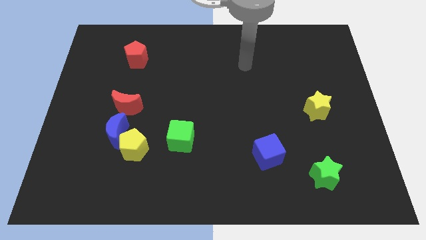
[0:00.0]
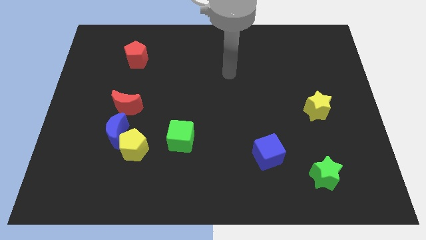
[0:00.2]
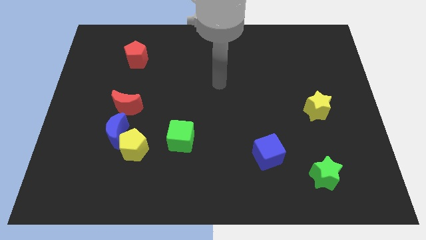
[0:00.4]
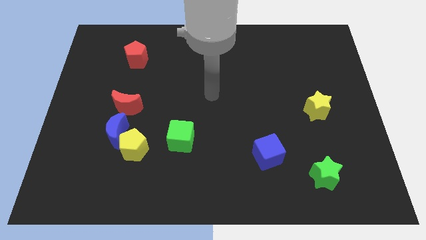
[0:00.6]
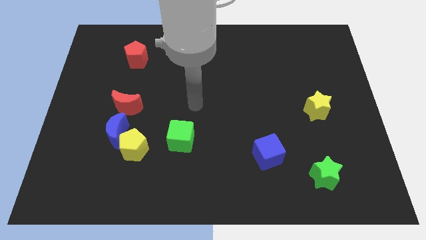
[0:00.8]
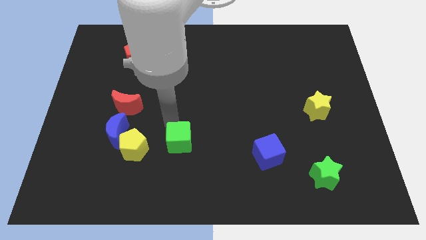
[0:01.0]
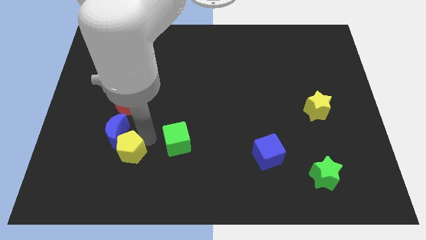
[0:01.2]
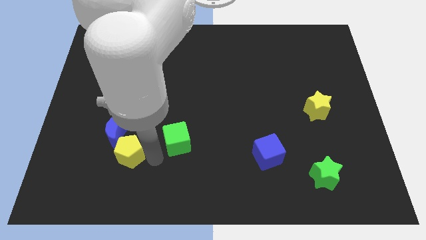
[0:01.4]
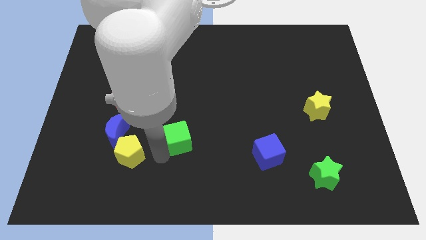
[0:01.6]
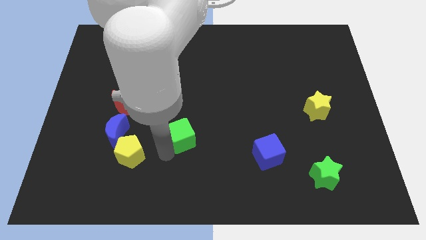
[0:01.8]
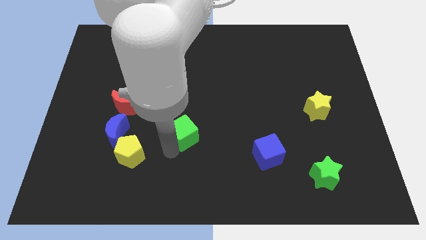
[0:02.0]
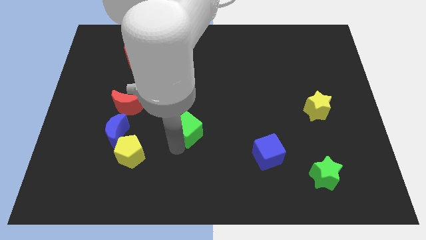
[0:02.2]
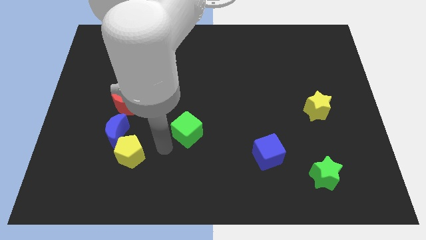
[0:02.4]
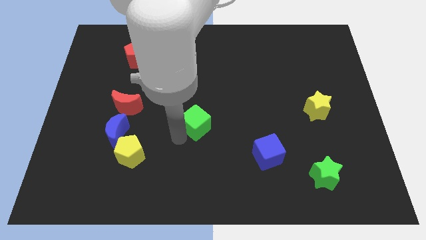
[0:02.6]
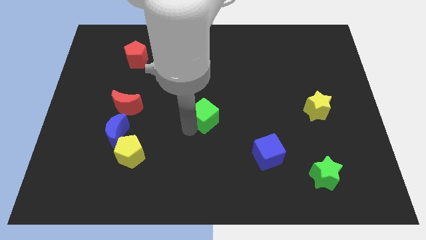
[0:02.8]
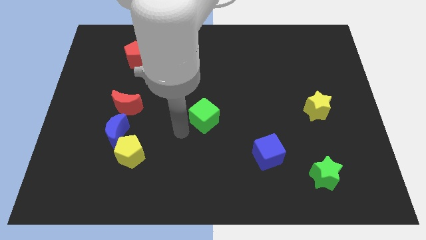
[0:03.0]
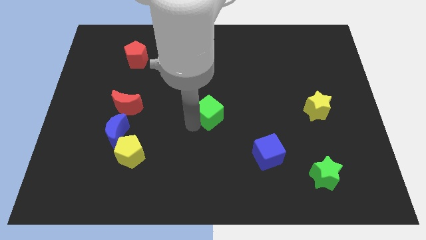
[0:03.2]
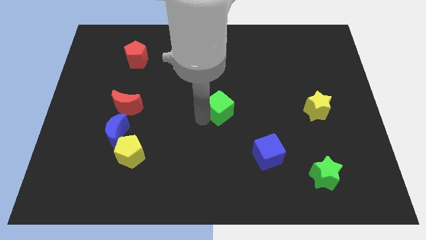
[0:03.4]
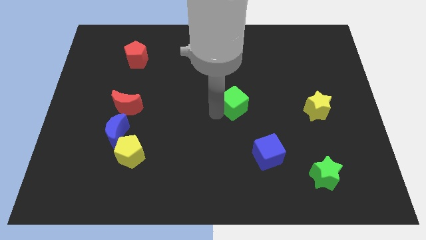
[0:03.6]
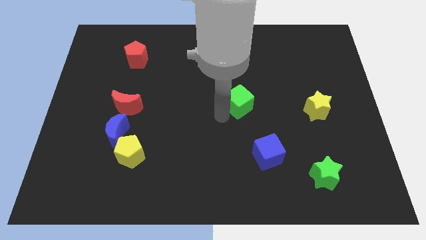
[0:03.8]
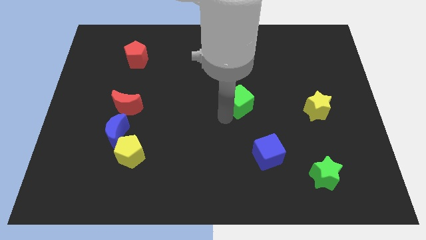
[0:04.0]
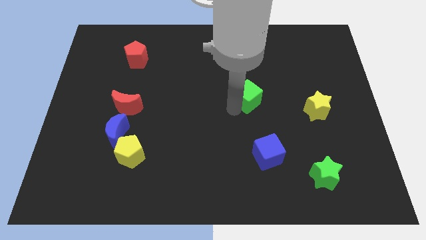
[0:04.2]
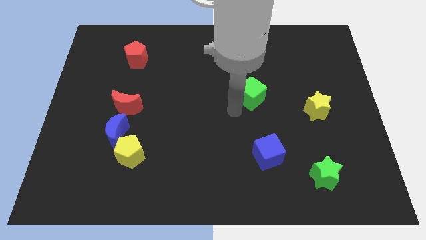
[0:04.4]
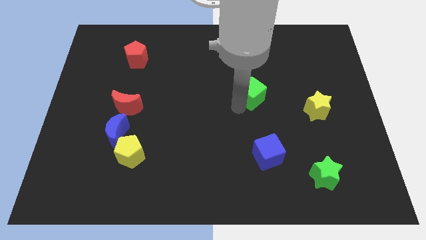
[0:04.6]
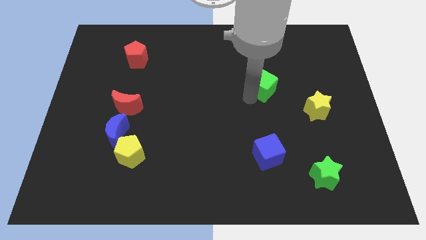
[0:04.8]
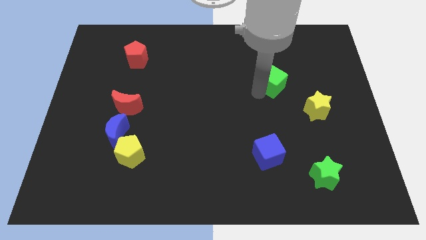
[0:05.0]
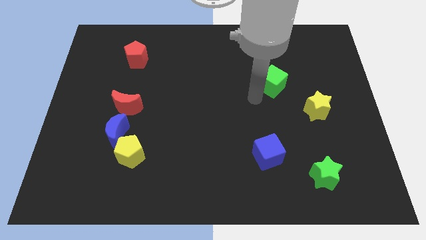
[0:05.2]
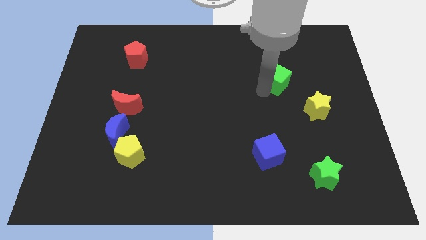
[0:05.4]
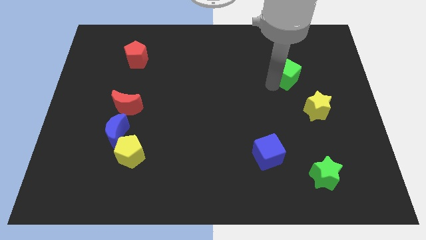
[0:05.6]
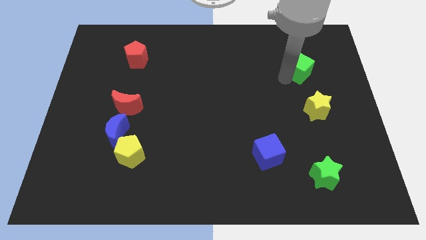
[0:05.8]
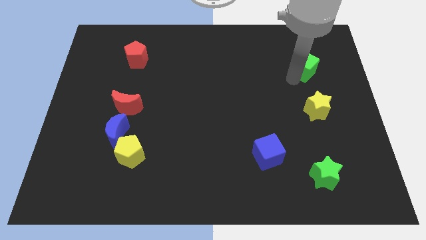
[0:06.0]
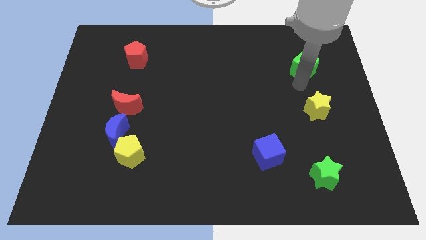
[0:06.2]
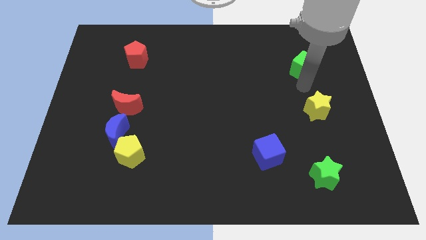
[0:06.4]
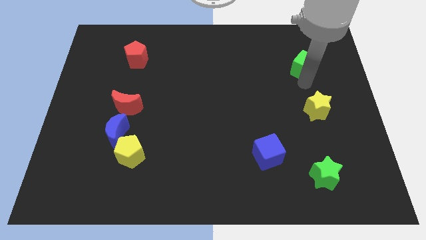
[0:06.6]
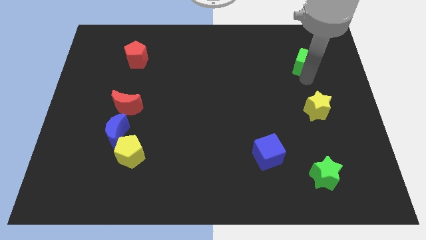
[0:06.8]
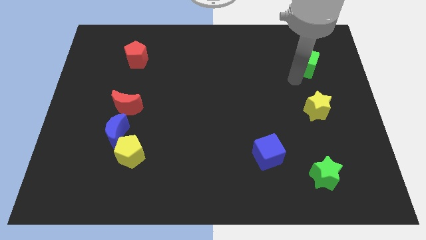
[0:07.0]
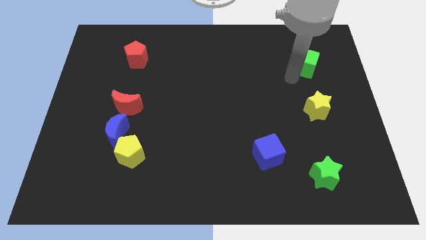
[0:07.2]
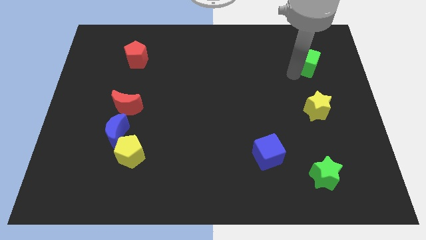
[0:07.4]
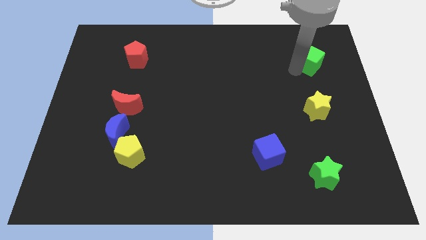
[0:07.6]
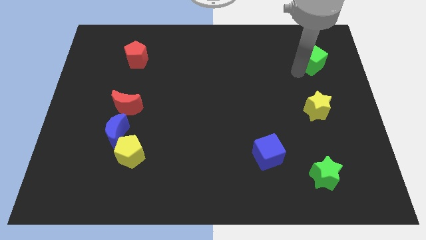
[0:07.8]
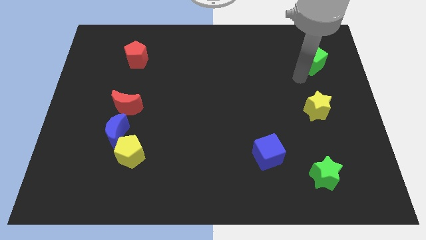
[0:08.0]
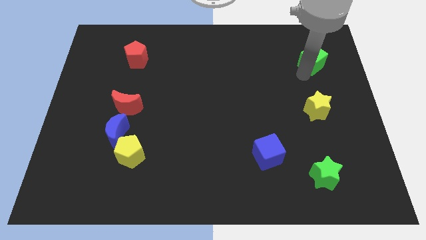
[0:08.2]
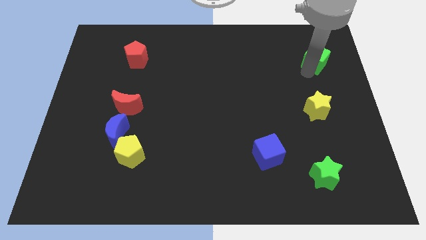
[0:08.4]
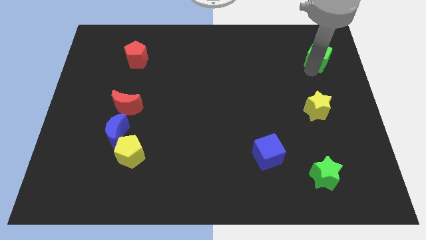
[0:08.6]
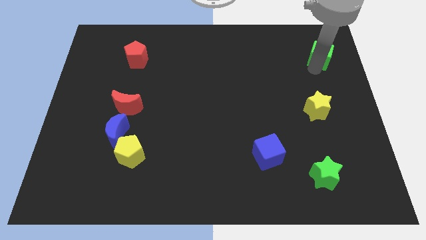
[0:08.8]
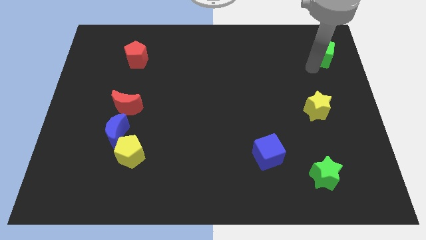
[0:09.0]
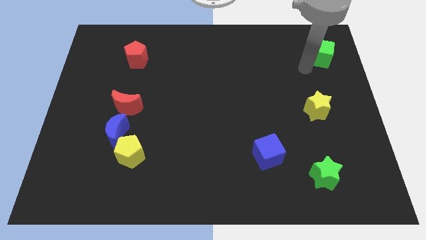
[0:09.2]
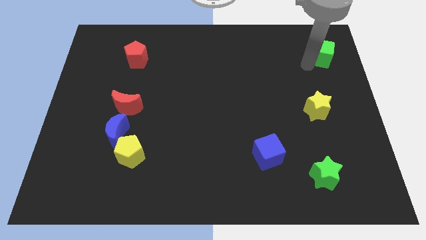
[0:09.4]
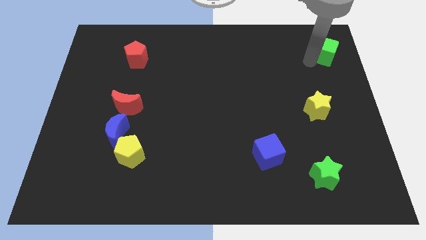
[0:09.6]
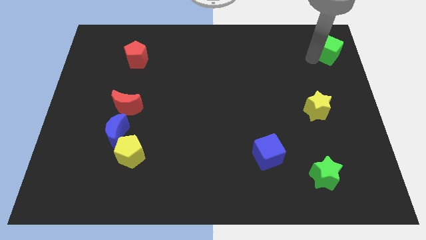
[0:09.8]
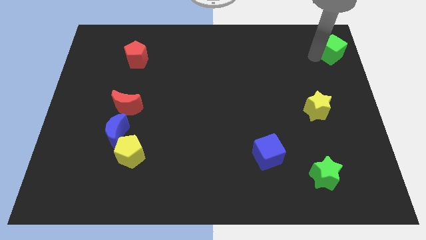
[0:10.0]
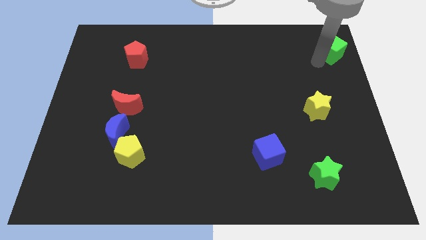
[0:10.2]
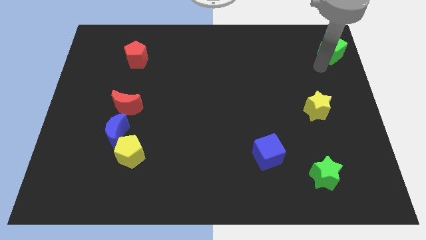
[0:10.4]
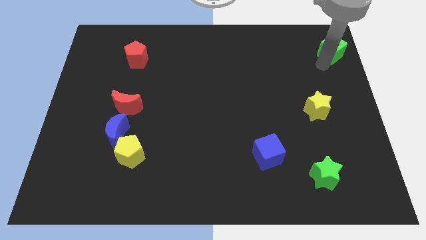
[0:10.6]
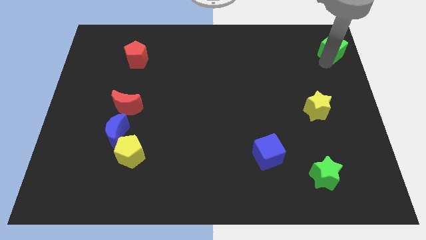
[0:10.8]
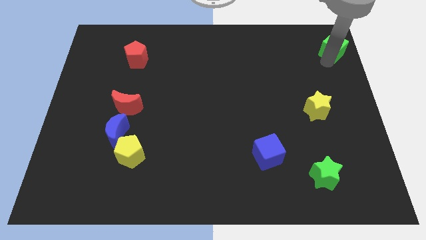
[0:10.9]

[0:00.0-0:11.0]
push the green cube to the top right of the board
